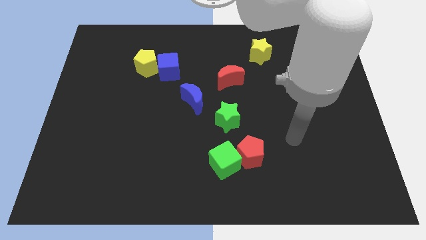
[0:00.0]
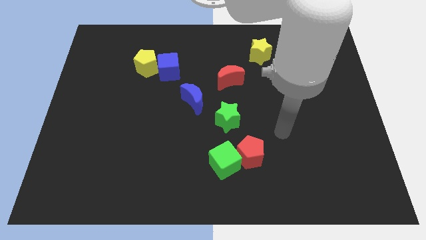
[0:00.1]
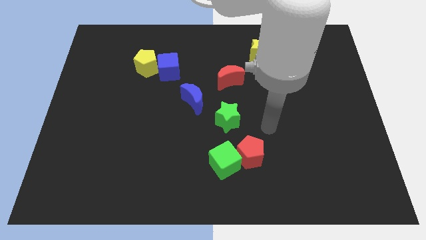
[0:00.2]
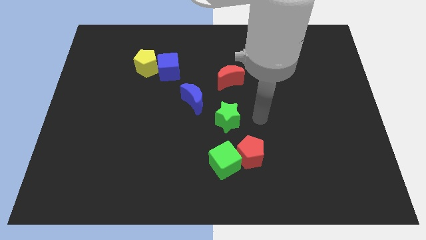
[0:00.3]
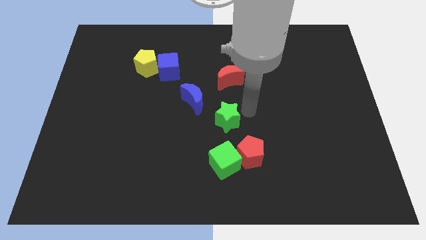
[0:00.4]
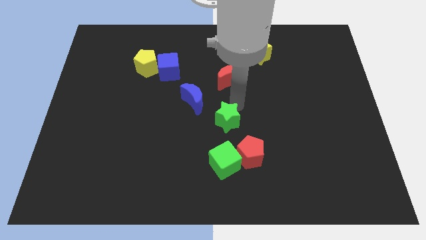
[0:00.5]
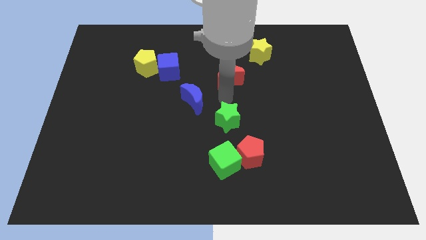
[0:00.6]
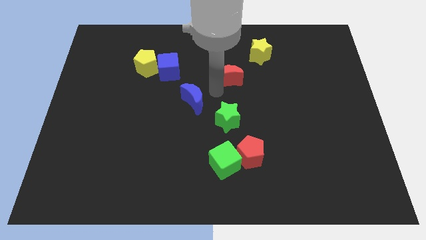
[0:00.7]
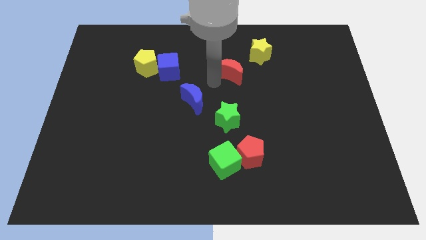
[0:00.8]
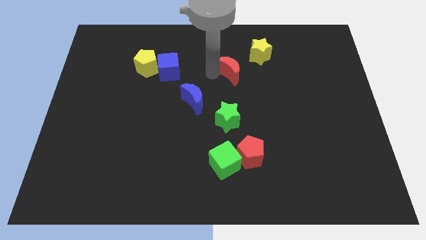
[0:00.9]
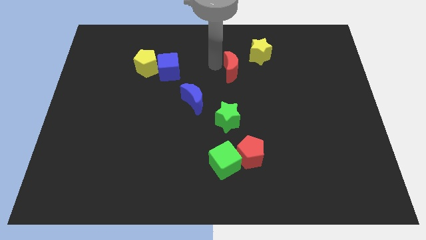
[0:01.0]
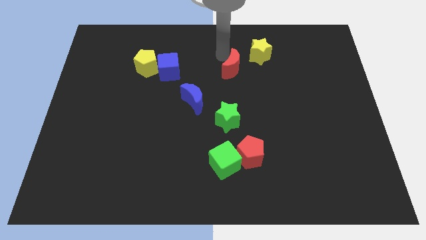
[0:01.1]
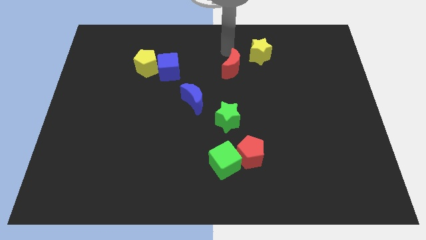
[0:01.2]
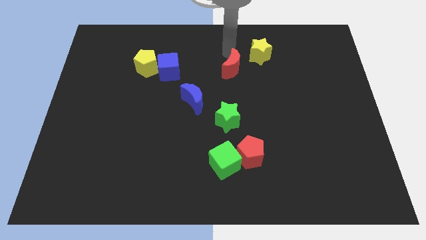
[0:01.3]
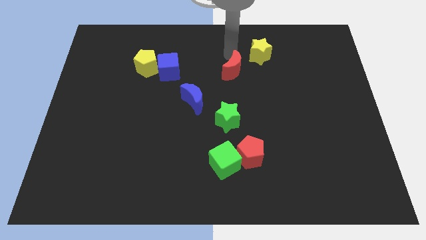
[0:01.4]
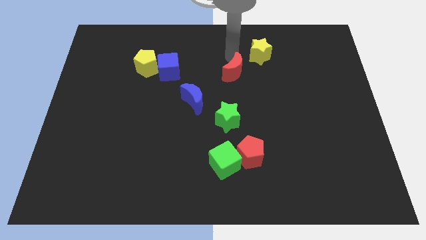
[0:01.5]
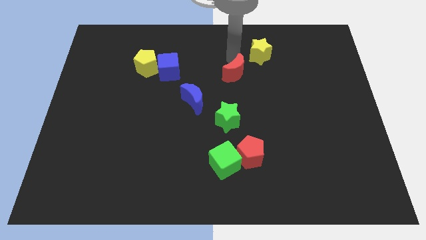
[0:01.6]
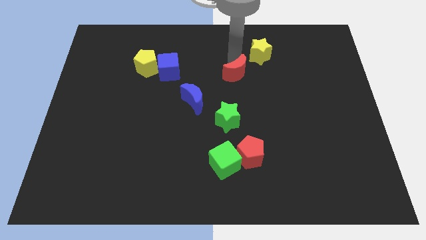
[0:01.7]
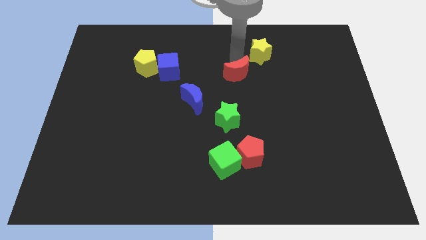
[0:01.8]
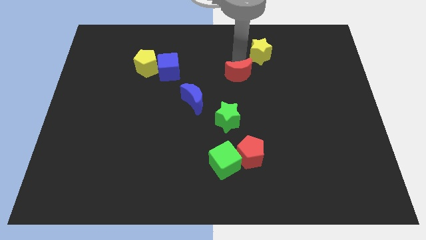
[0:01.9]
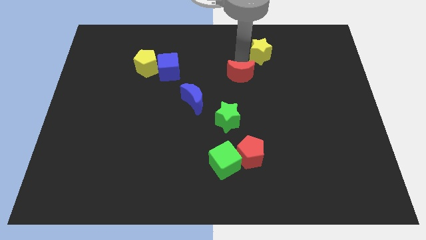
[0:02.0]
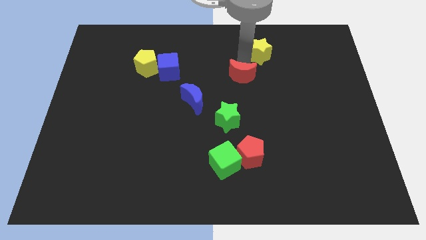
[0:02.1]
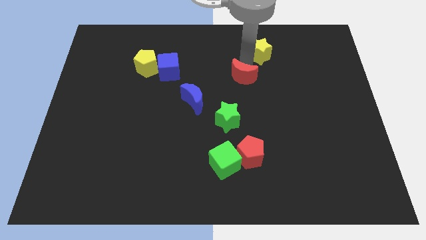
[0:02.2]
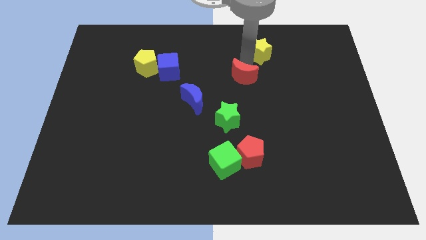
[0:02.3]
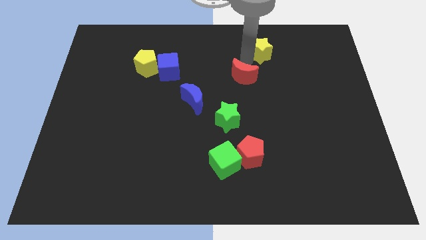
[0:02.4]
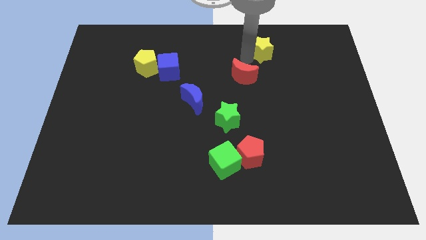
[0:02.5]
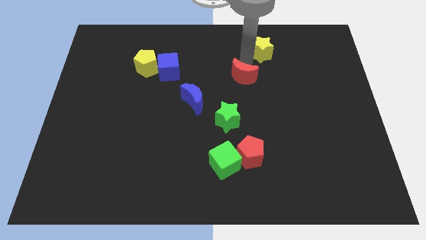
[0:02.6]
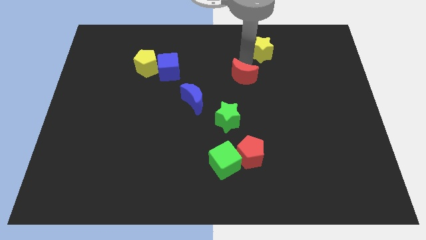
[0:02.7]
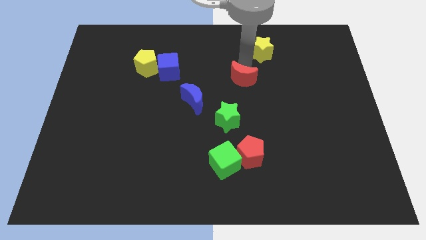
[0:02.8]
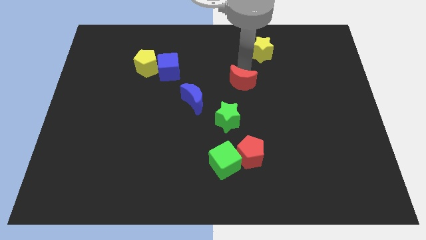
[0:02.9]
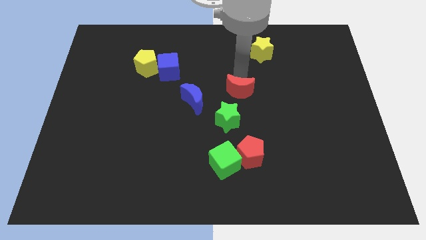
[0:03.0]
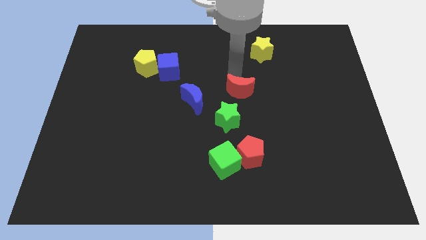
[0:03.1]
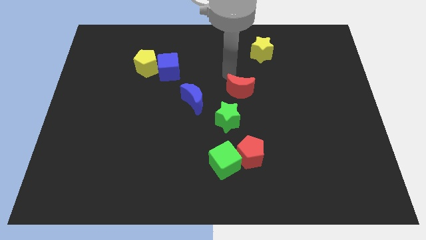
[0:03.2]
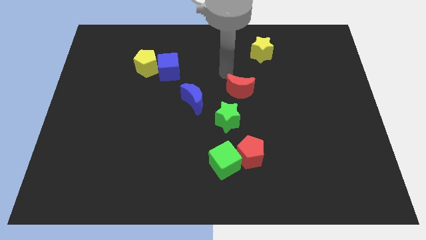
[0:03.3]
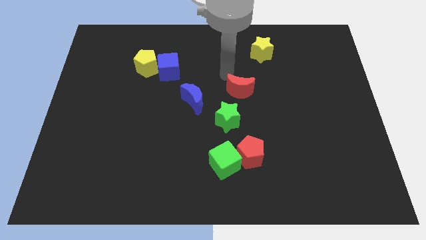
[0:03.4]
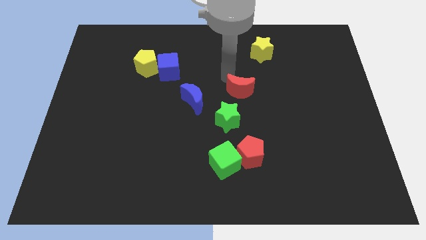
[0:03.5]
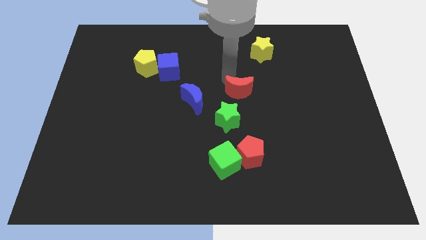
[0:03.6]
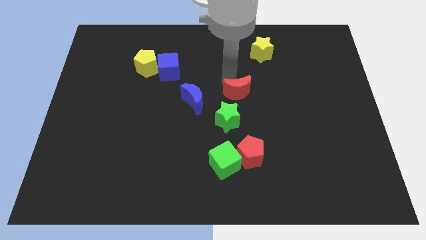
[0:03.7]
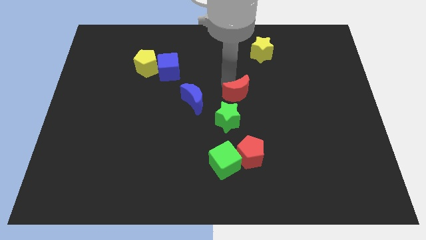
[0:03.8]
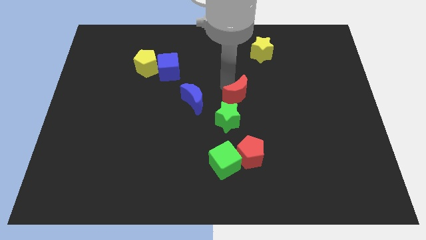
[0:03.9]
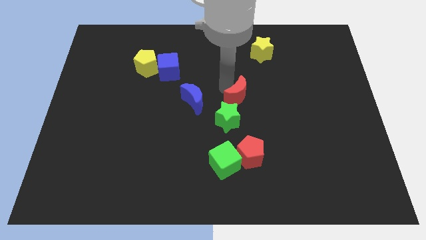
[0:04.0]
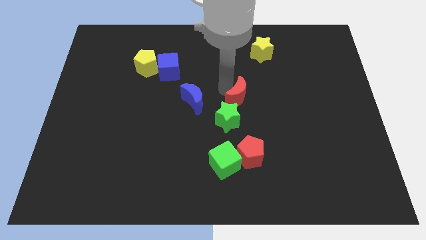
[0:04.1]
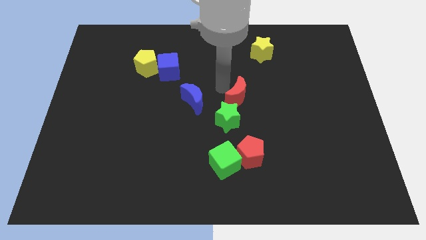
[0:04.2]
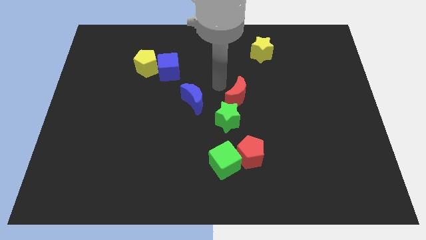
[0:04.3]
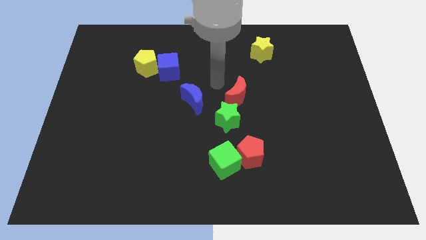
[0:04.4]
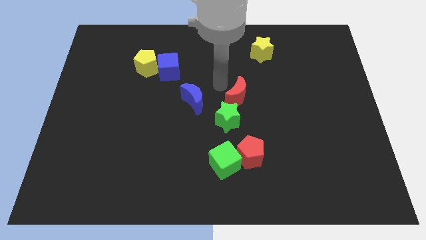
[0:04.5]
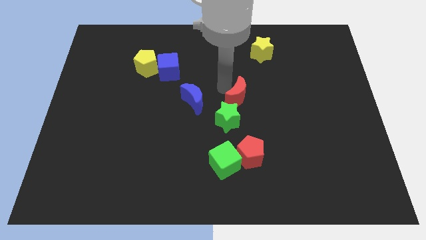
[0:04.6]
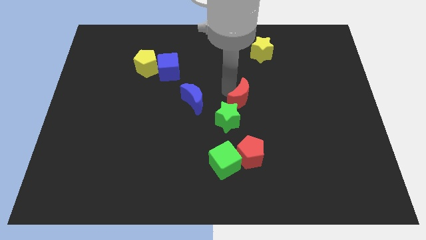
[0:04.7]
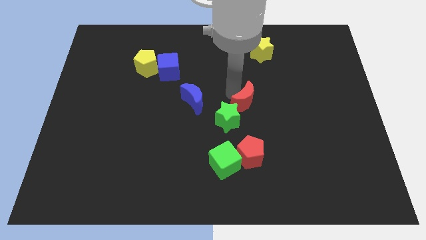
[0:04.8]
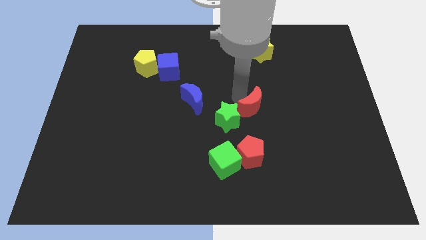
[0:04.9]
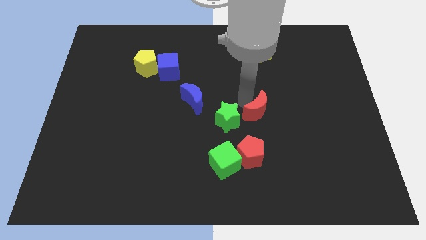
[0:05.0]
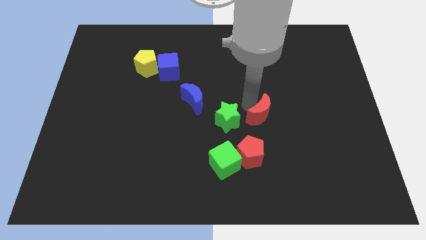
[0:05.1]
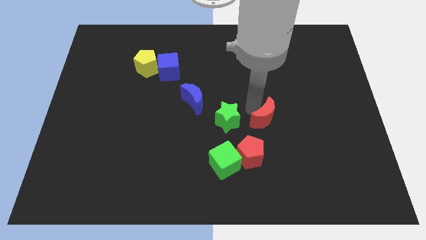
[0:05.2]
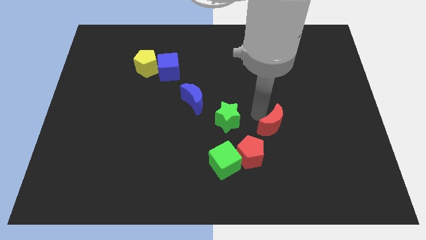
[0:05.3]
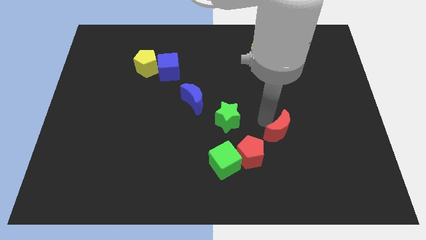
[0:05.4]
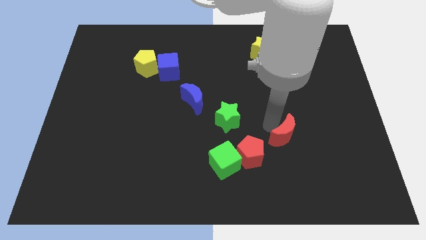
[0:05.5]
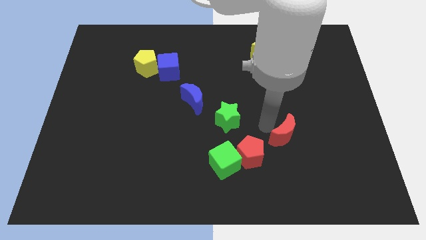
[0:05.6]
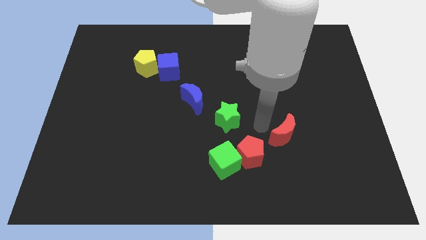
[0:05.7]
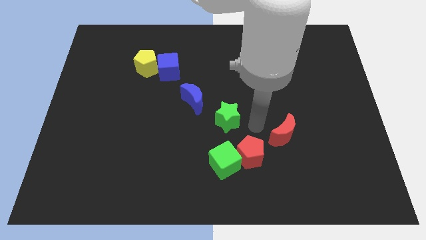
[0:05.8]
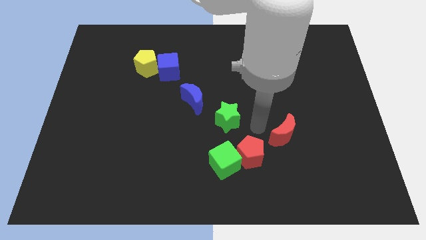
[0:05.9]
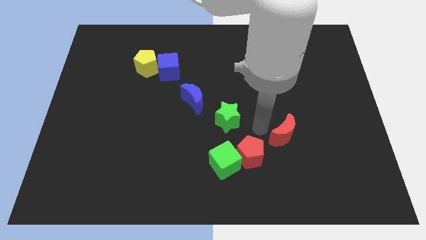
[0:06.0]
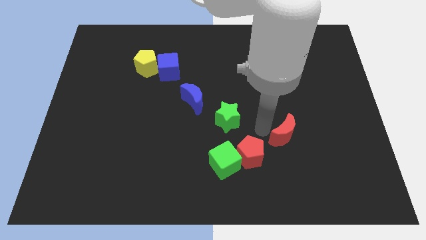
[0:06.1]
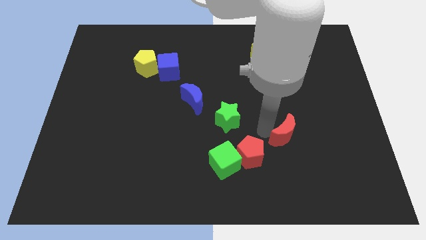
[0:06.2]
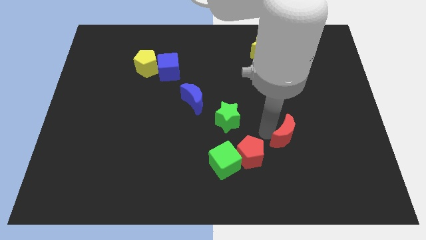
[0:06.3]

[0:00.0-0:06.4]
move the red moon downwards and to the right diagonally

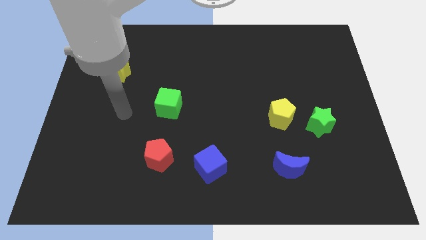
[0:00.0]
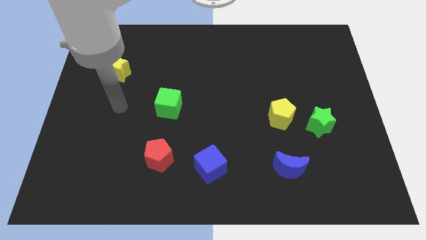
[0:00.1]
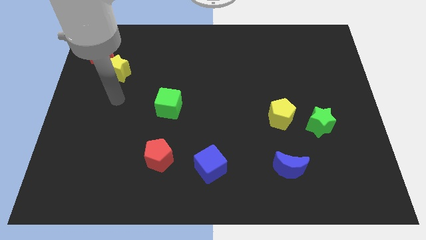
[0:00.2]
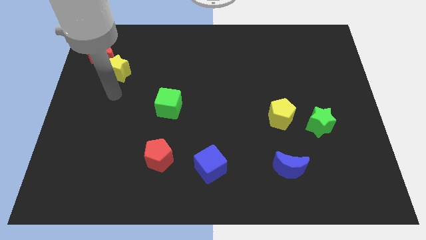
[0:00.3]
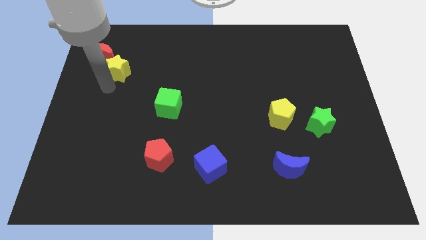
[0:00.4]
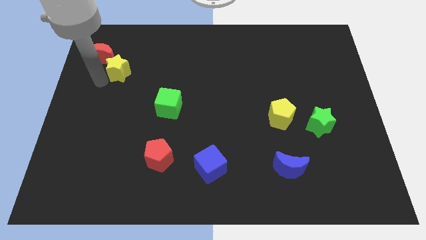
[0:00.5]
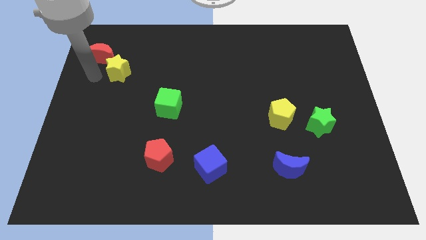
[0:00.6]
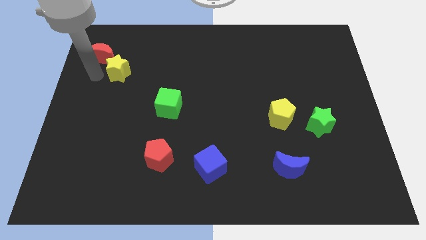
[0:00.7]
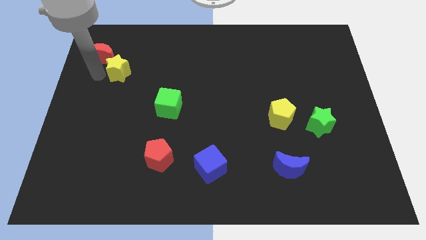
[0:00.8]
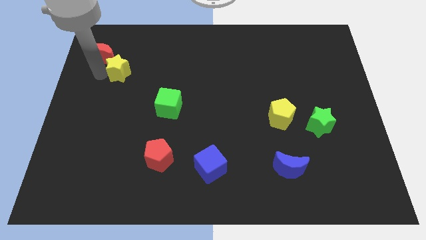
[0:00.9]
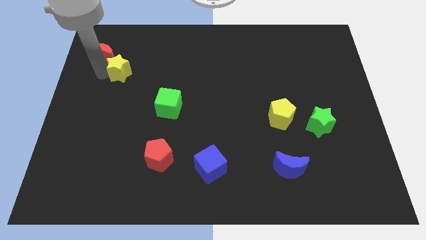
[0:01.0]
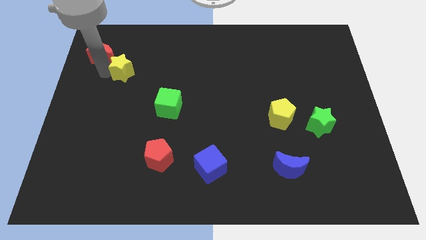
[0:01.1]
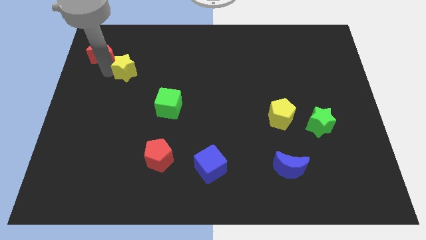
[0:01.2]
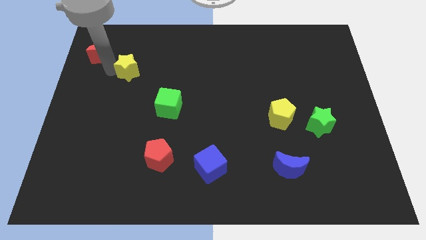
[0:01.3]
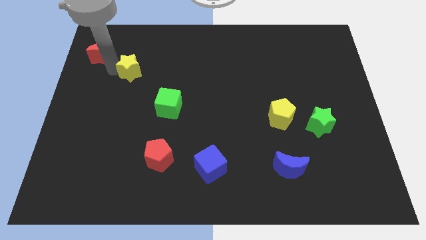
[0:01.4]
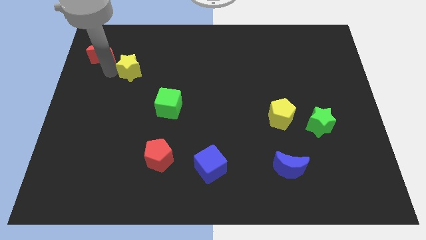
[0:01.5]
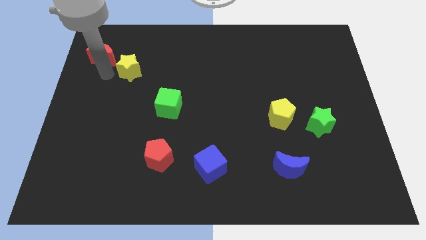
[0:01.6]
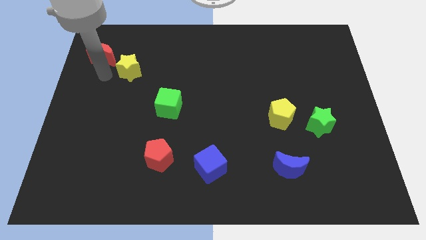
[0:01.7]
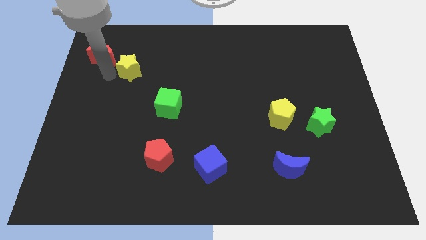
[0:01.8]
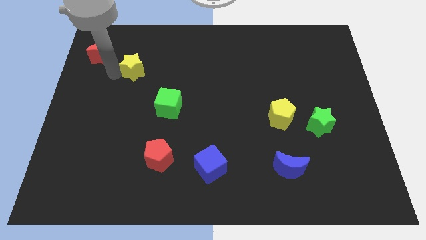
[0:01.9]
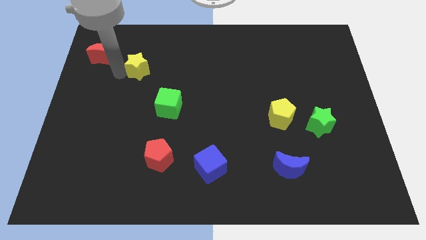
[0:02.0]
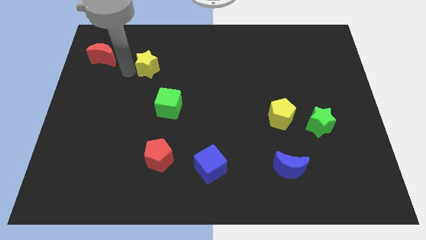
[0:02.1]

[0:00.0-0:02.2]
slightly slide the yellow star right
